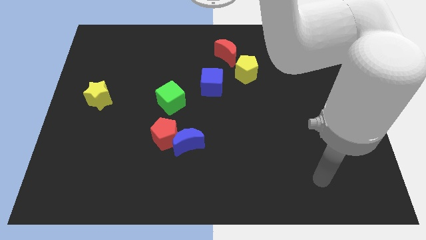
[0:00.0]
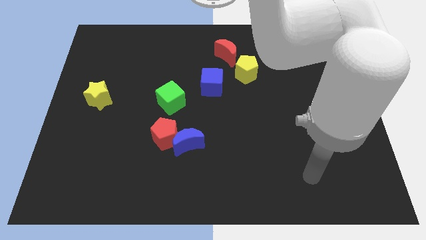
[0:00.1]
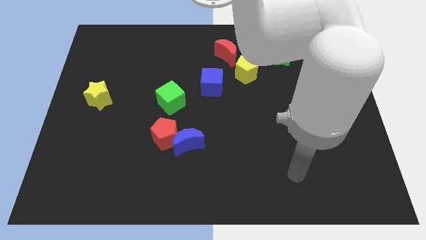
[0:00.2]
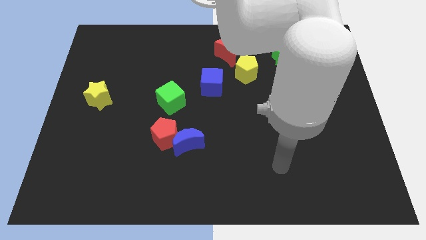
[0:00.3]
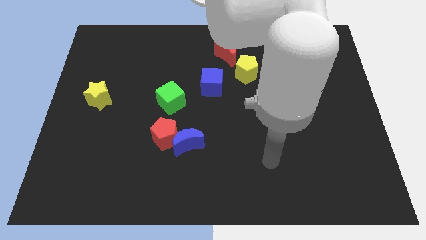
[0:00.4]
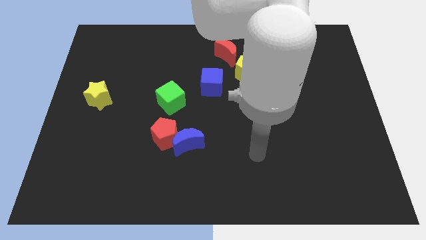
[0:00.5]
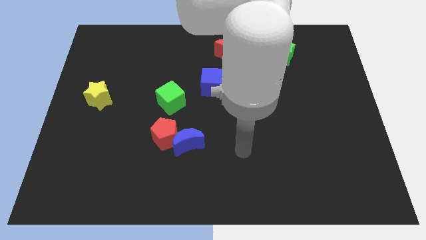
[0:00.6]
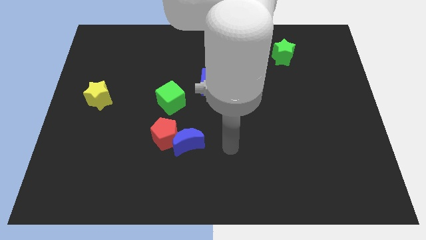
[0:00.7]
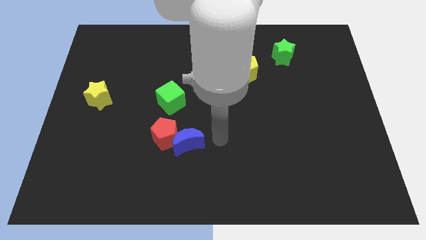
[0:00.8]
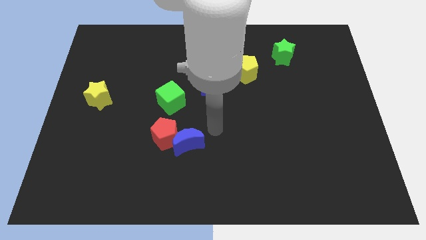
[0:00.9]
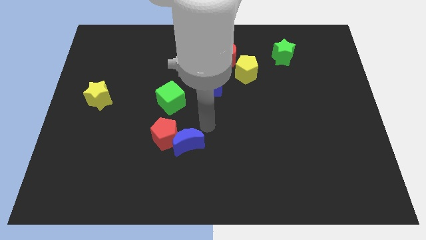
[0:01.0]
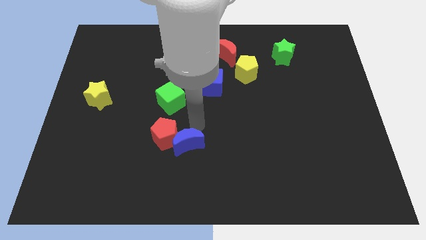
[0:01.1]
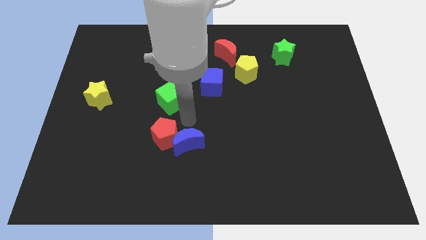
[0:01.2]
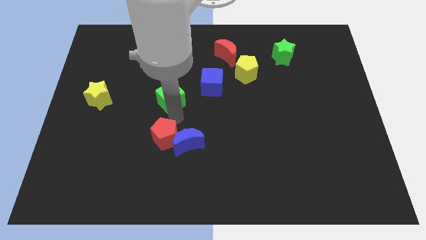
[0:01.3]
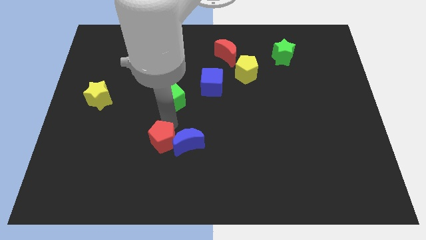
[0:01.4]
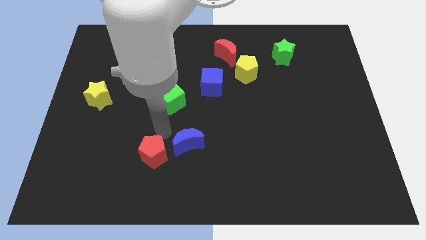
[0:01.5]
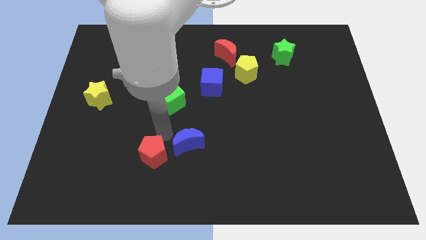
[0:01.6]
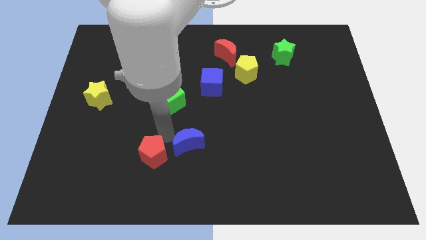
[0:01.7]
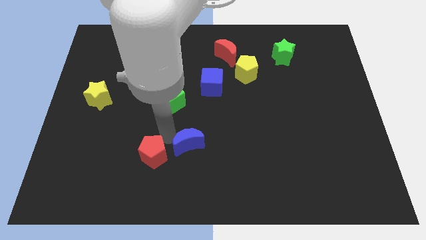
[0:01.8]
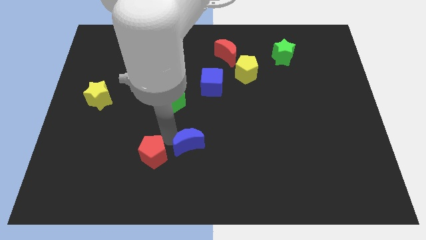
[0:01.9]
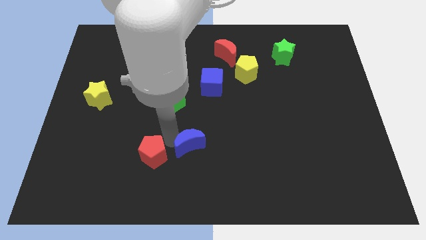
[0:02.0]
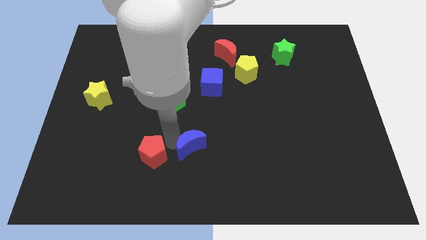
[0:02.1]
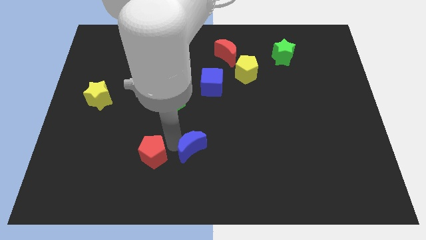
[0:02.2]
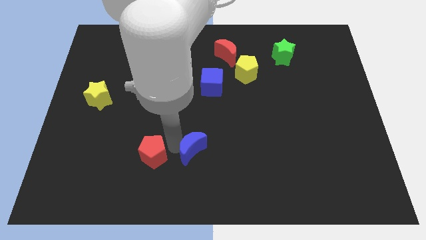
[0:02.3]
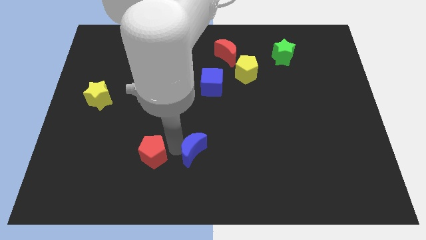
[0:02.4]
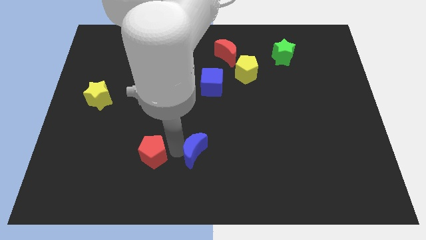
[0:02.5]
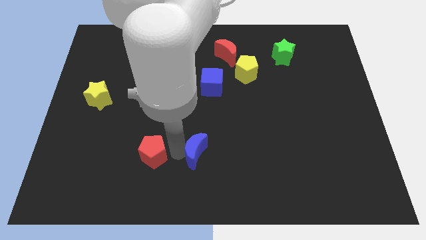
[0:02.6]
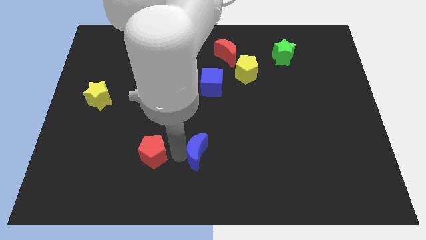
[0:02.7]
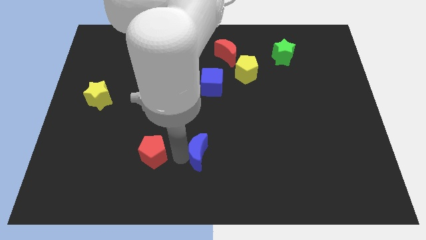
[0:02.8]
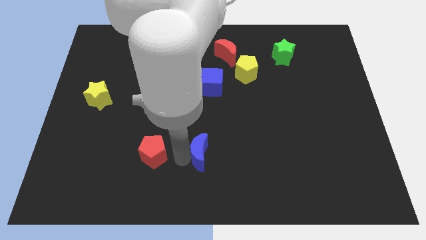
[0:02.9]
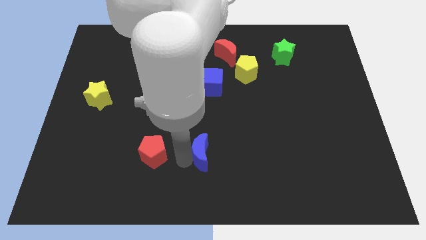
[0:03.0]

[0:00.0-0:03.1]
separate the blue moon from the red pentagon

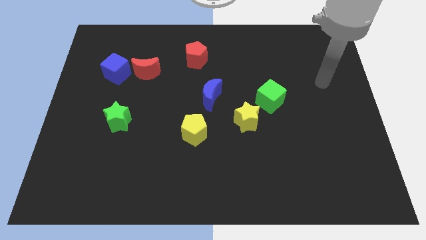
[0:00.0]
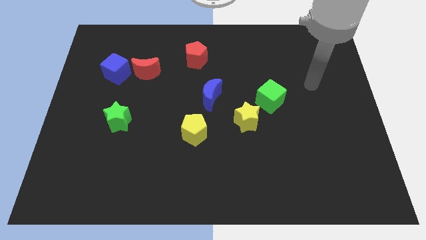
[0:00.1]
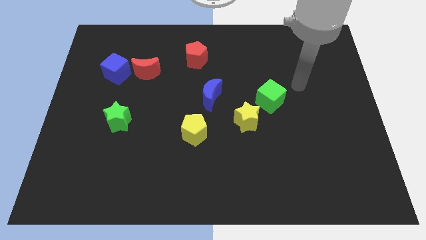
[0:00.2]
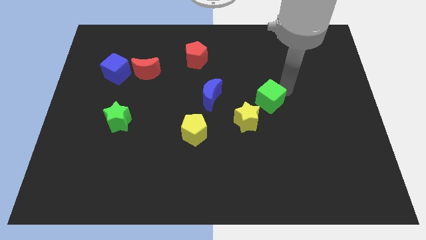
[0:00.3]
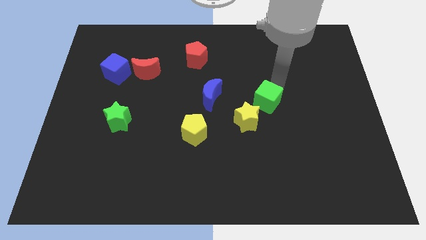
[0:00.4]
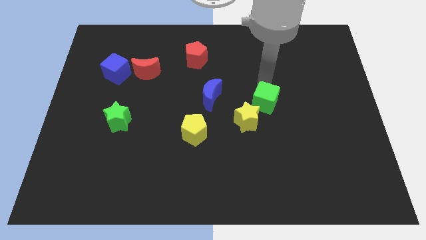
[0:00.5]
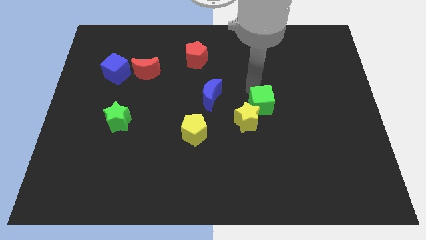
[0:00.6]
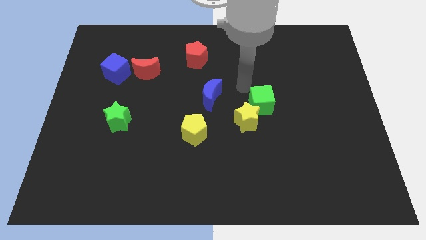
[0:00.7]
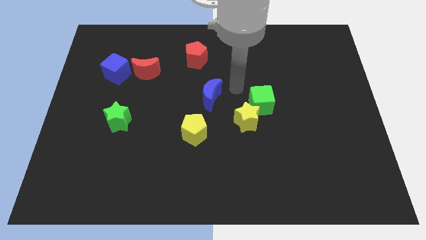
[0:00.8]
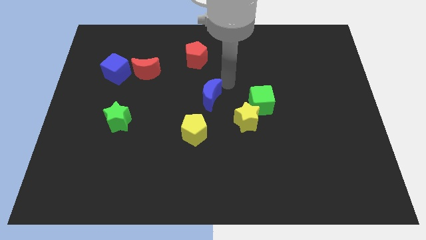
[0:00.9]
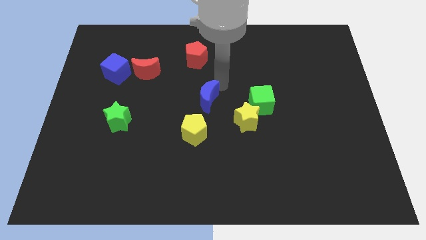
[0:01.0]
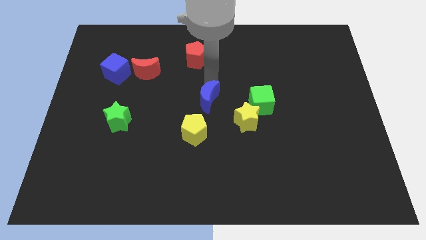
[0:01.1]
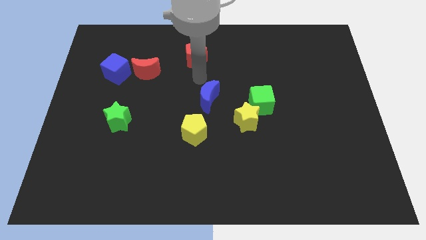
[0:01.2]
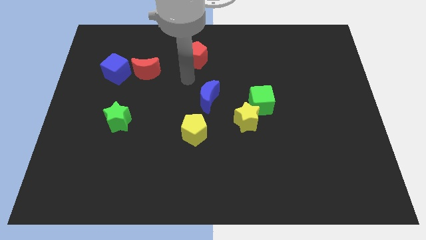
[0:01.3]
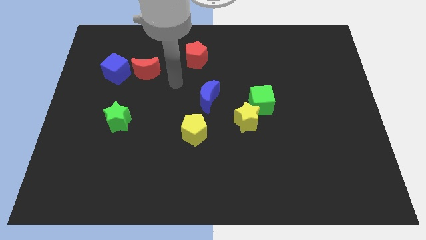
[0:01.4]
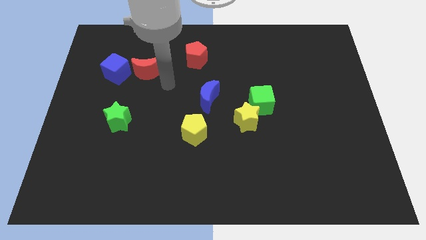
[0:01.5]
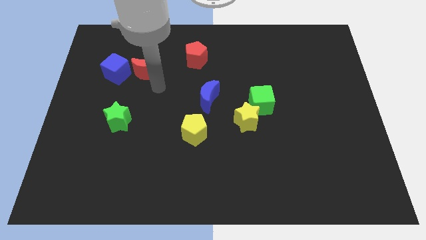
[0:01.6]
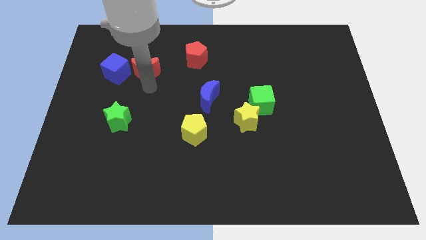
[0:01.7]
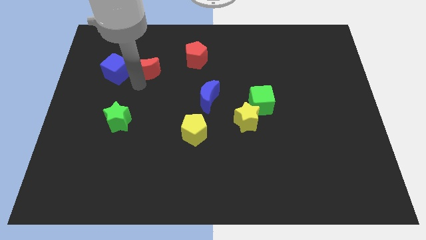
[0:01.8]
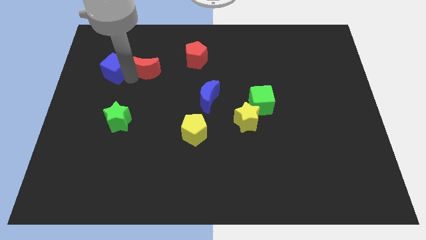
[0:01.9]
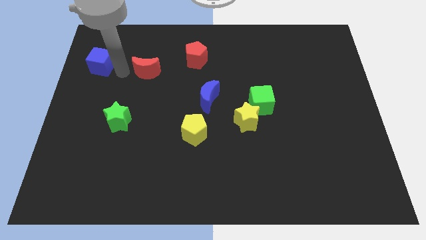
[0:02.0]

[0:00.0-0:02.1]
move the red moon away from the blue cube

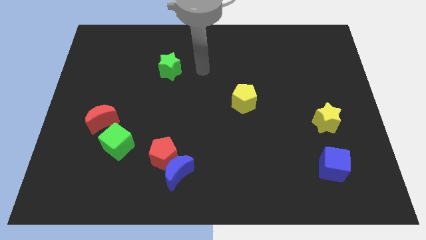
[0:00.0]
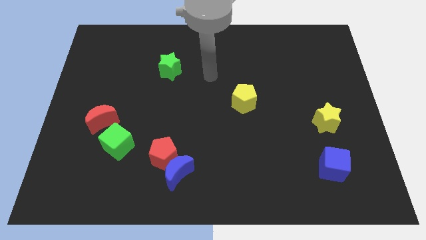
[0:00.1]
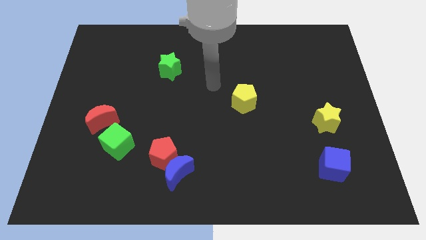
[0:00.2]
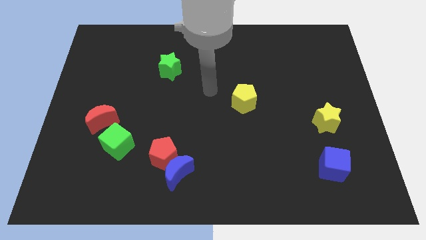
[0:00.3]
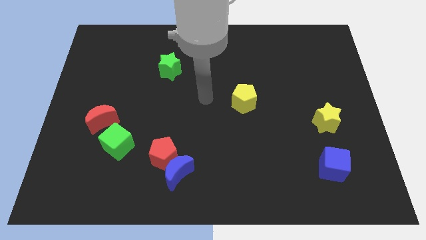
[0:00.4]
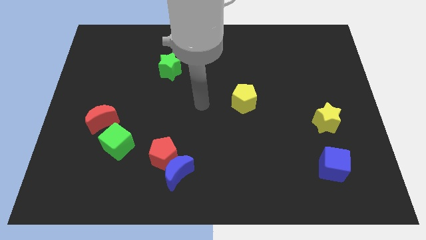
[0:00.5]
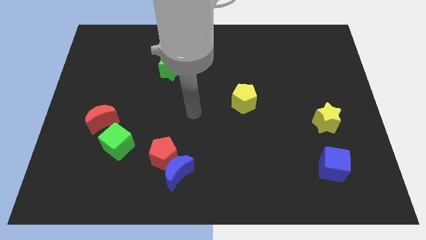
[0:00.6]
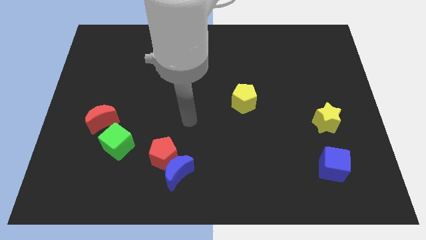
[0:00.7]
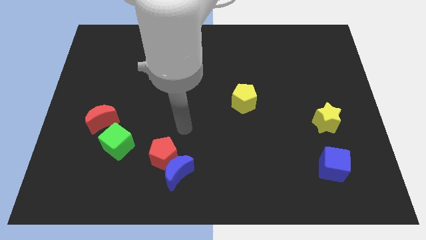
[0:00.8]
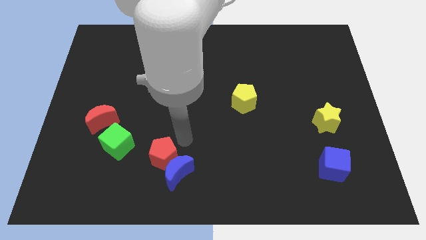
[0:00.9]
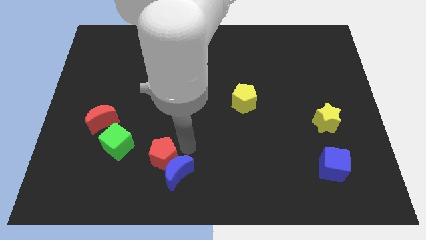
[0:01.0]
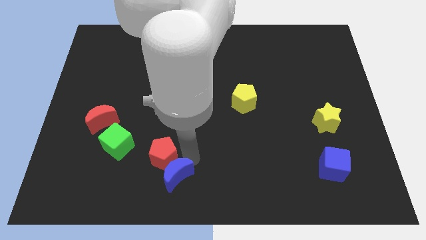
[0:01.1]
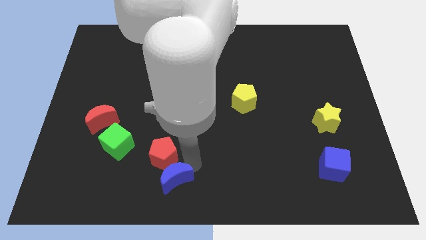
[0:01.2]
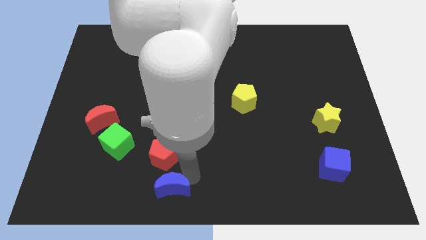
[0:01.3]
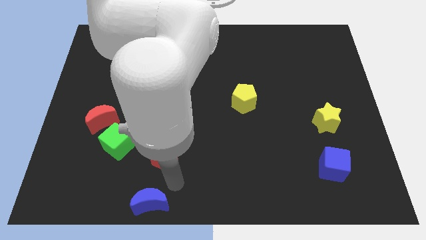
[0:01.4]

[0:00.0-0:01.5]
move the red pentagon away from the blue moon

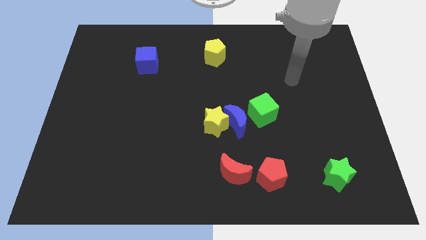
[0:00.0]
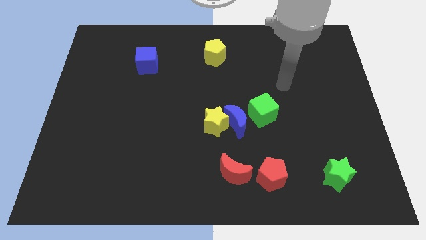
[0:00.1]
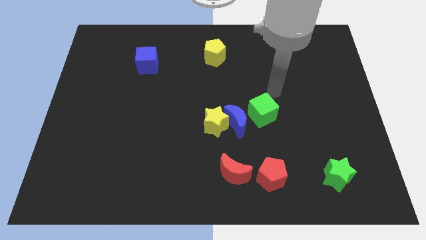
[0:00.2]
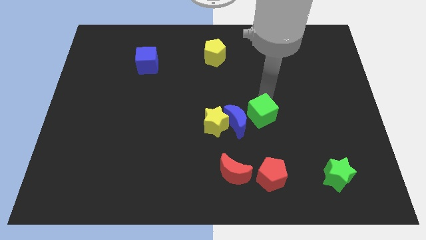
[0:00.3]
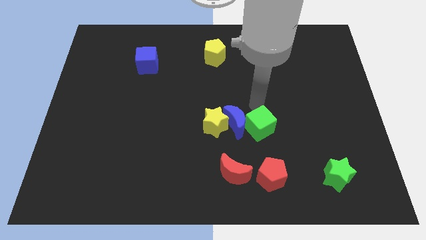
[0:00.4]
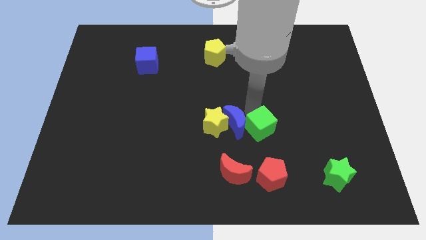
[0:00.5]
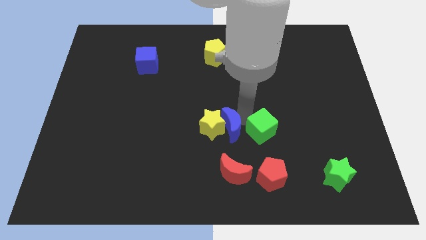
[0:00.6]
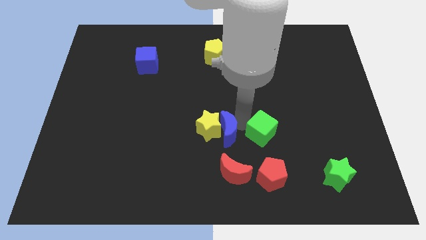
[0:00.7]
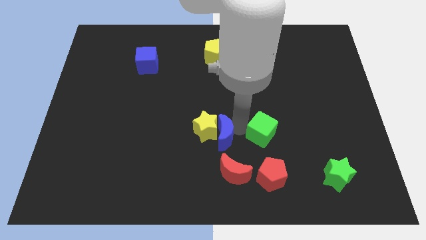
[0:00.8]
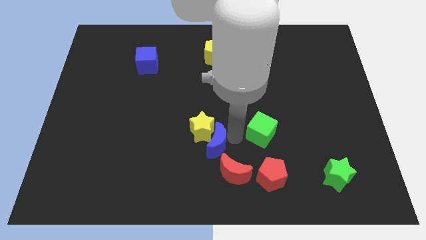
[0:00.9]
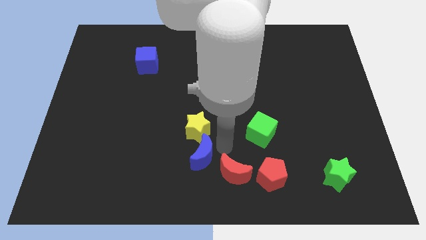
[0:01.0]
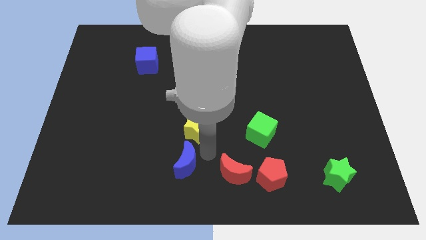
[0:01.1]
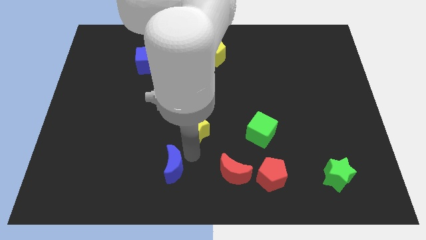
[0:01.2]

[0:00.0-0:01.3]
move the yellow star away from the blue moon

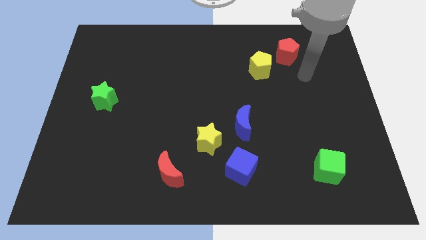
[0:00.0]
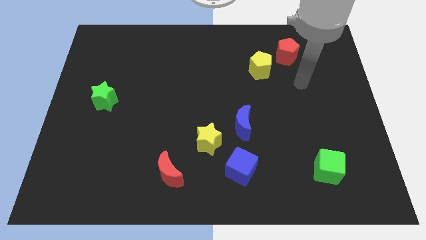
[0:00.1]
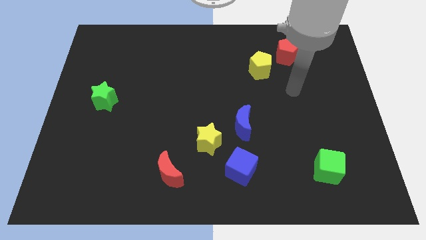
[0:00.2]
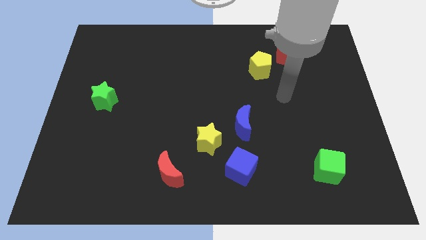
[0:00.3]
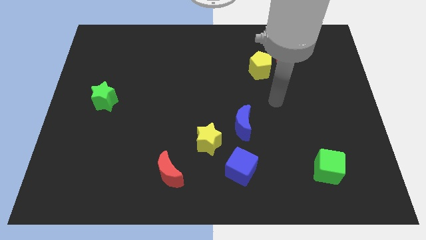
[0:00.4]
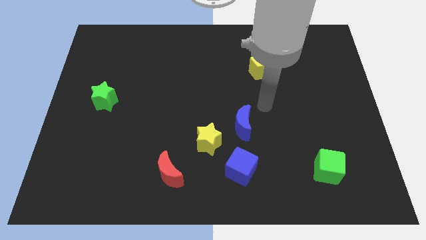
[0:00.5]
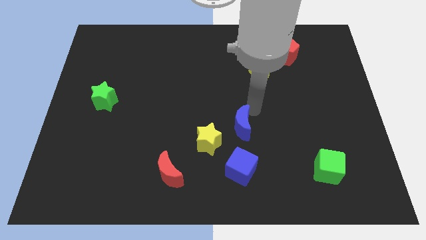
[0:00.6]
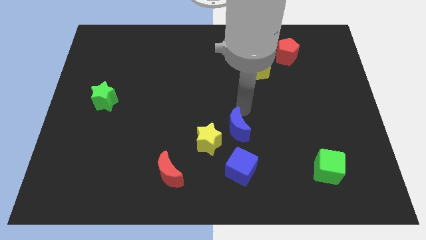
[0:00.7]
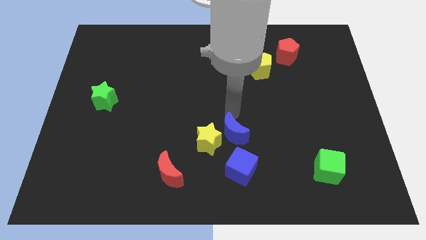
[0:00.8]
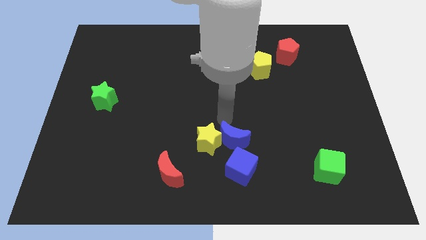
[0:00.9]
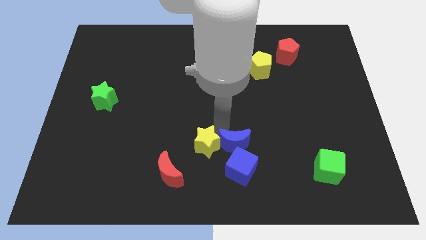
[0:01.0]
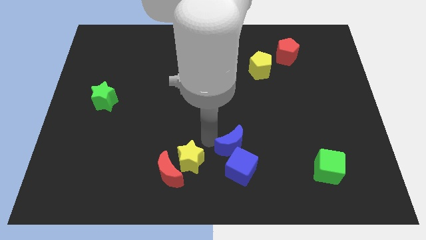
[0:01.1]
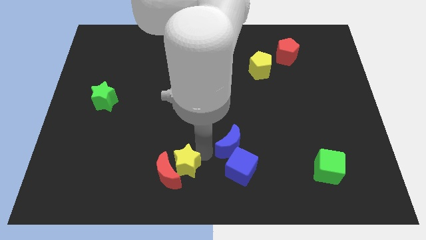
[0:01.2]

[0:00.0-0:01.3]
separate the blue moon from the yellow star
